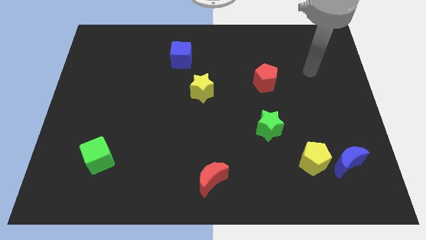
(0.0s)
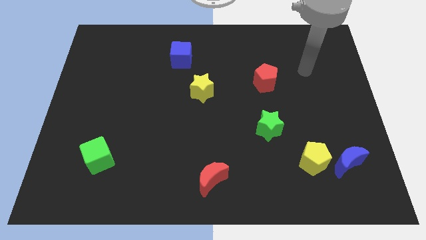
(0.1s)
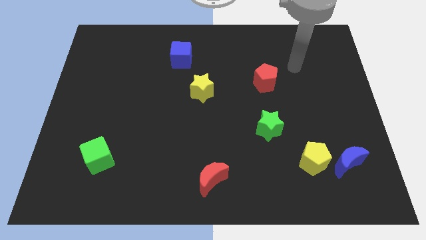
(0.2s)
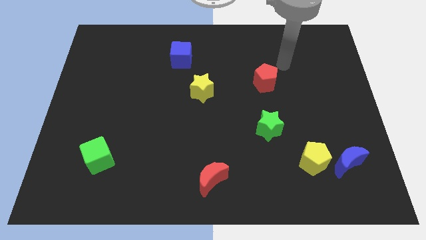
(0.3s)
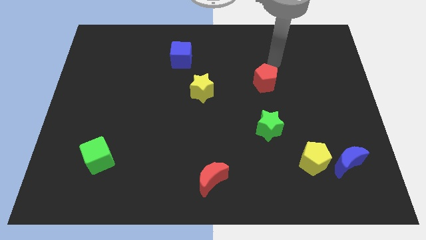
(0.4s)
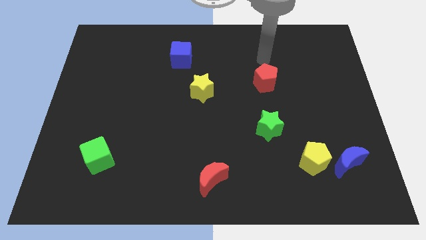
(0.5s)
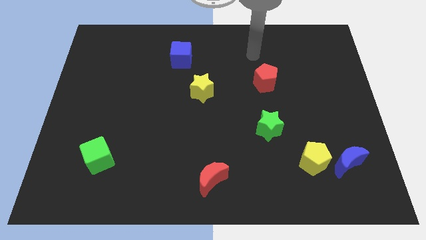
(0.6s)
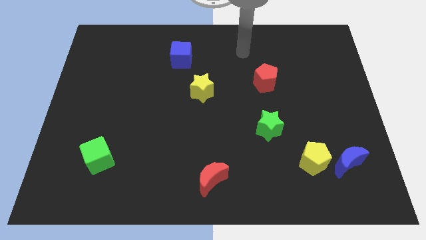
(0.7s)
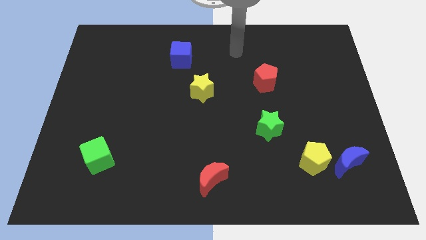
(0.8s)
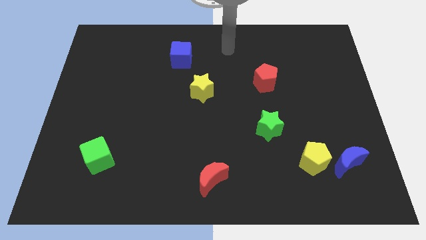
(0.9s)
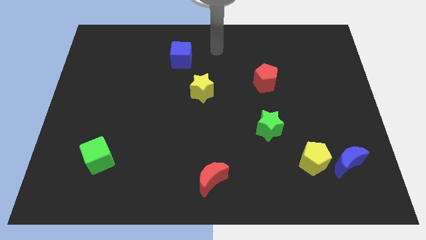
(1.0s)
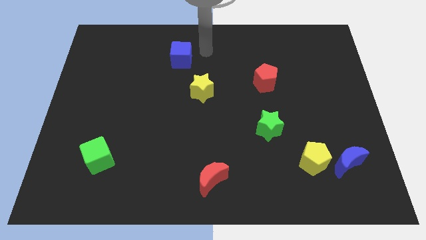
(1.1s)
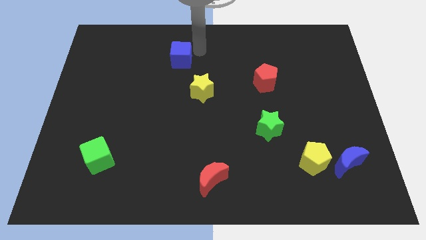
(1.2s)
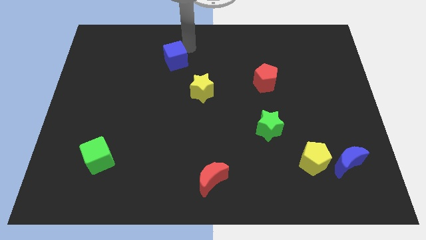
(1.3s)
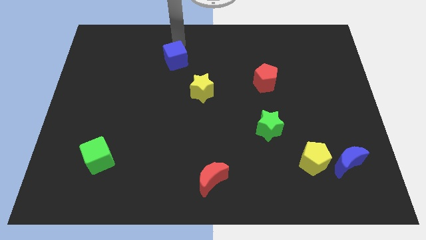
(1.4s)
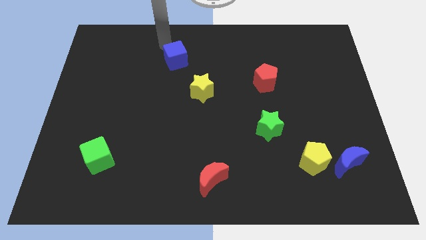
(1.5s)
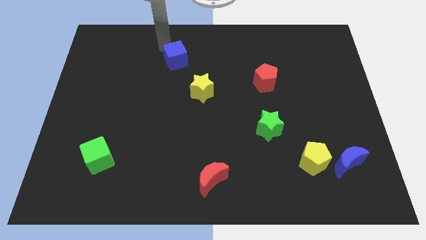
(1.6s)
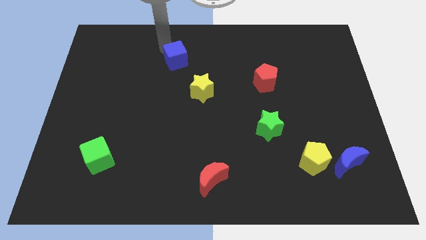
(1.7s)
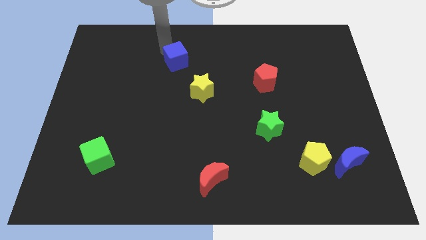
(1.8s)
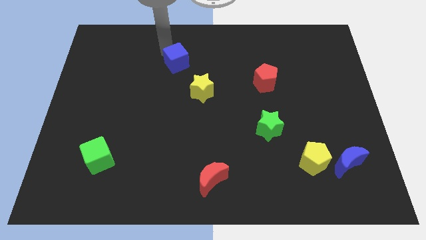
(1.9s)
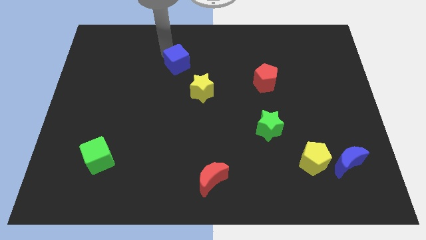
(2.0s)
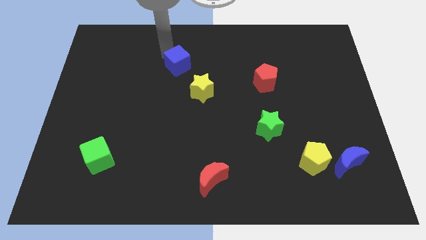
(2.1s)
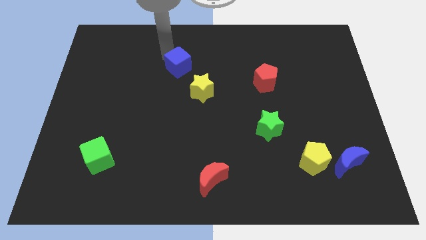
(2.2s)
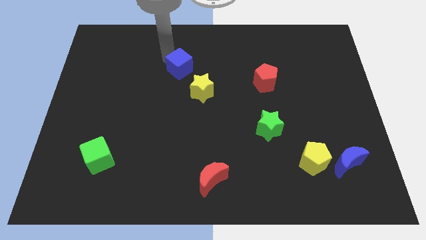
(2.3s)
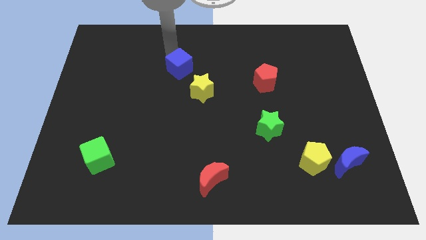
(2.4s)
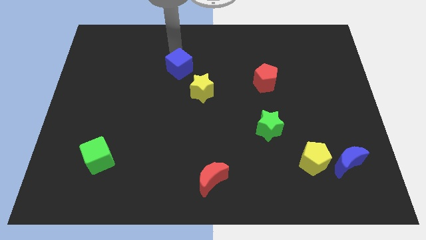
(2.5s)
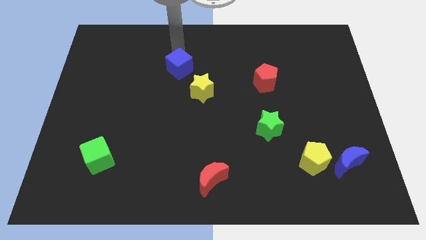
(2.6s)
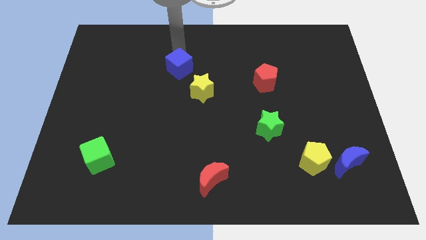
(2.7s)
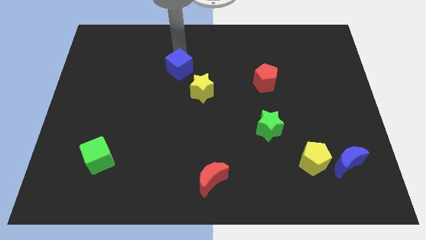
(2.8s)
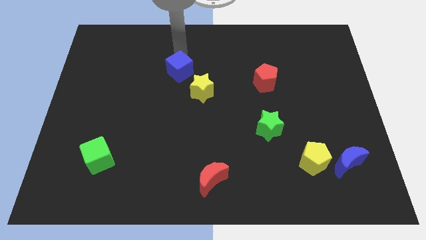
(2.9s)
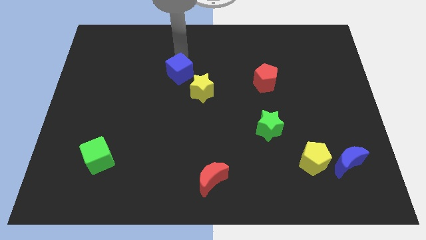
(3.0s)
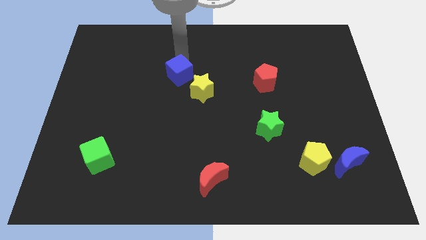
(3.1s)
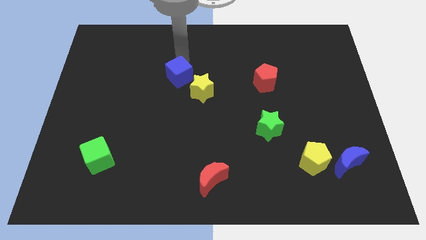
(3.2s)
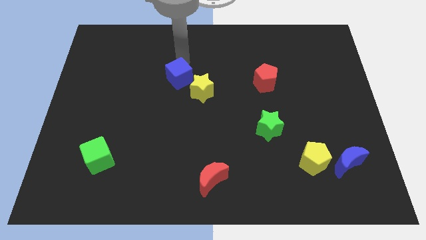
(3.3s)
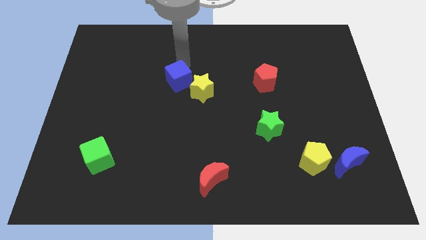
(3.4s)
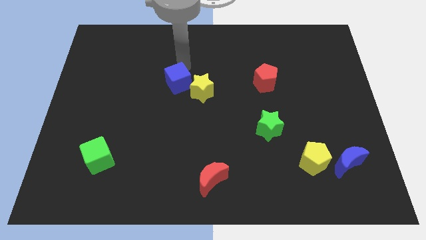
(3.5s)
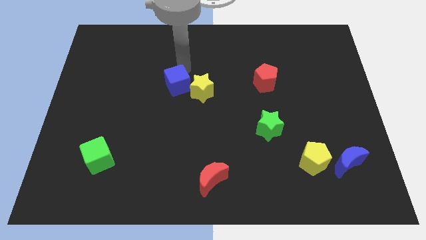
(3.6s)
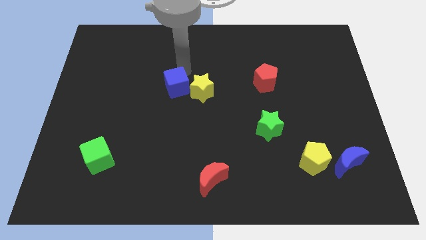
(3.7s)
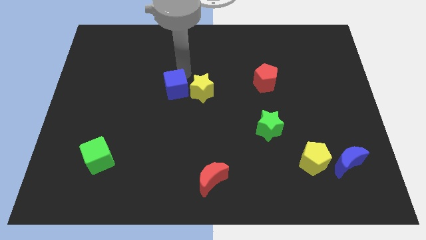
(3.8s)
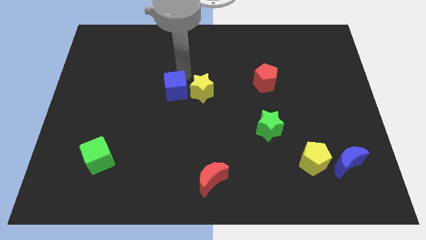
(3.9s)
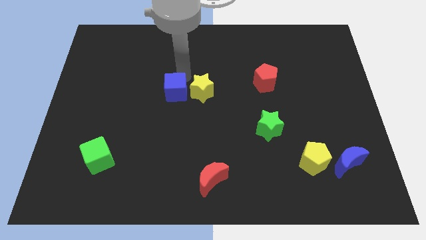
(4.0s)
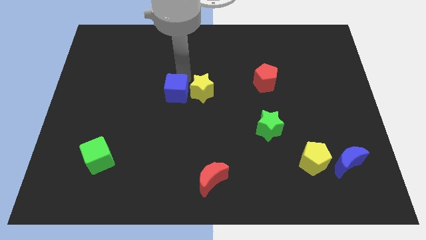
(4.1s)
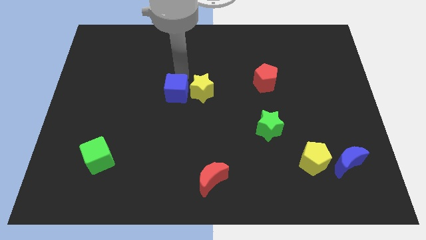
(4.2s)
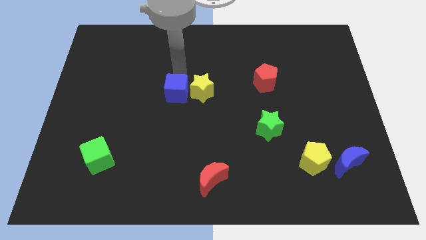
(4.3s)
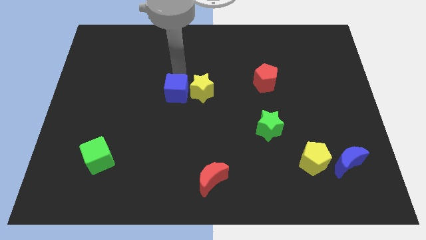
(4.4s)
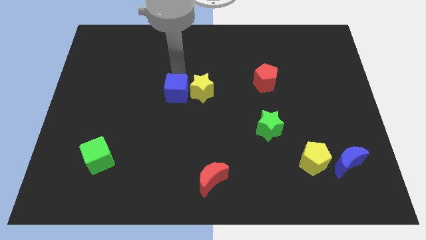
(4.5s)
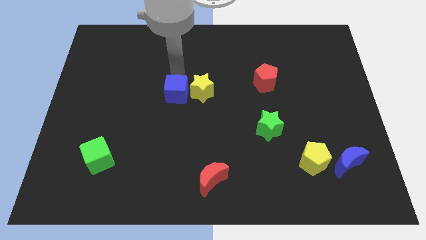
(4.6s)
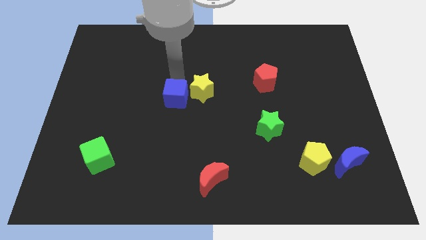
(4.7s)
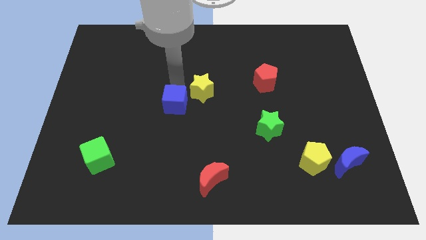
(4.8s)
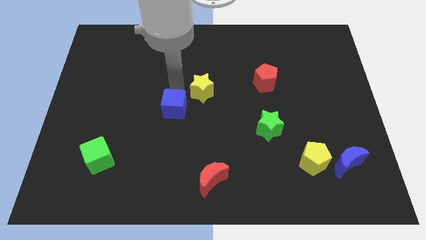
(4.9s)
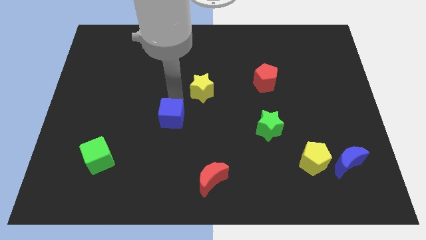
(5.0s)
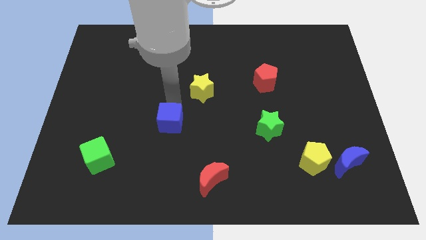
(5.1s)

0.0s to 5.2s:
move the blue cube down

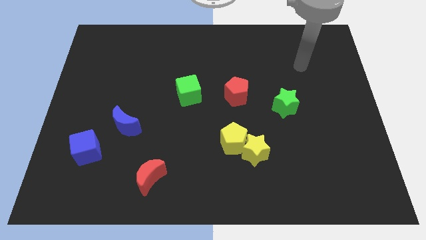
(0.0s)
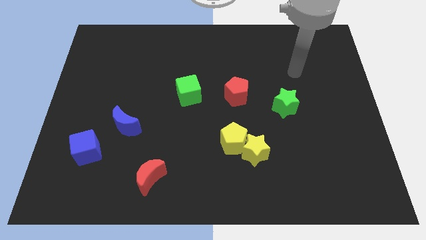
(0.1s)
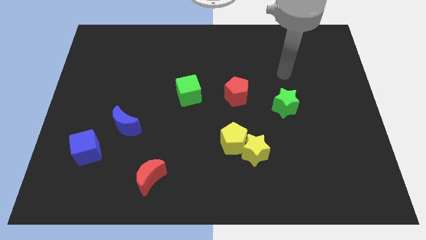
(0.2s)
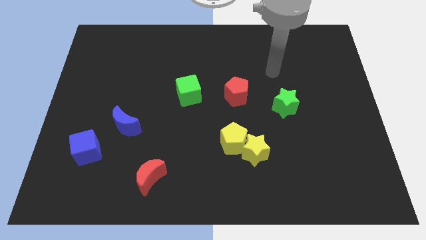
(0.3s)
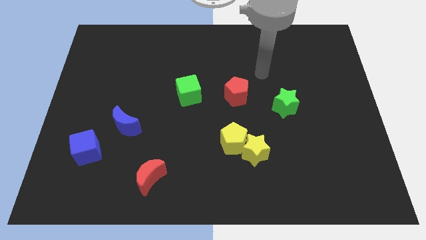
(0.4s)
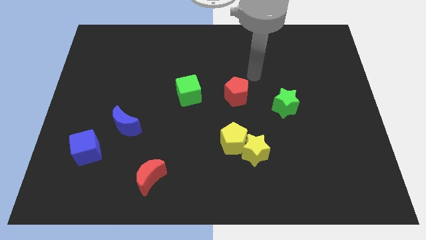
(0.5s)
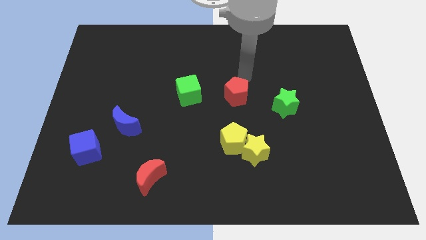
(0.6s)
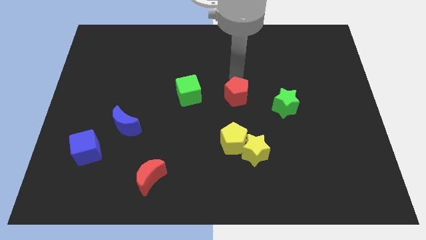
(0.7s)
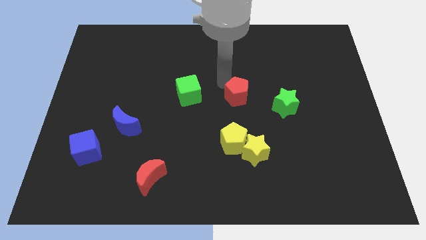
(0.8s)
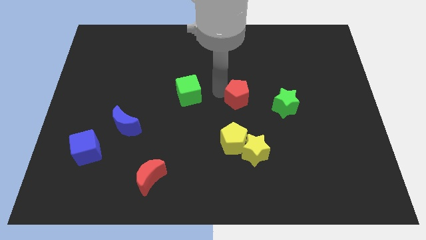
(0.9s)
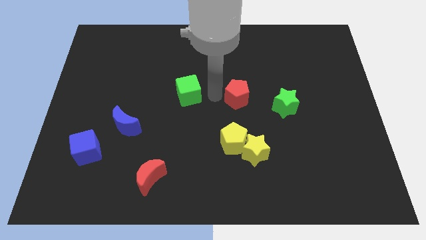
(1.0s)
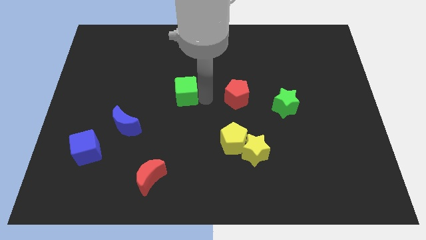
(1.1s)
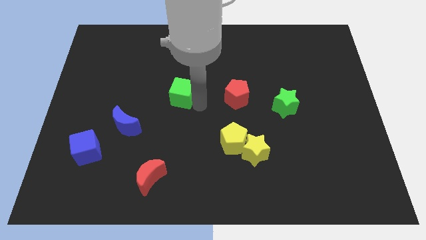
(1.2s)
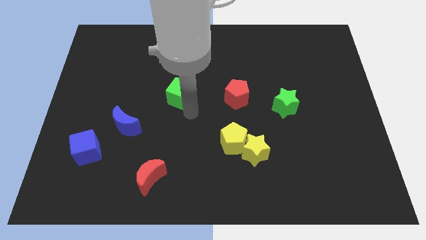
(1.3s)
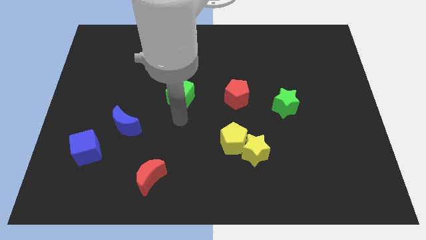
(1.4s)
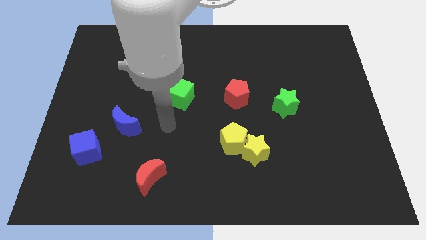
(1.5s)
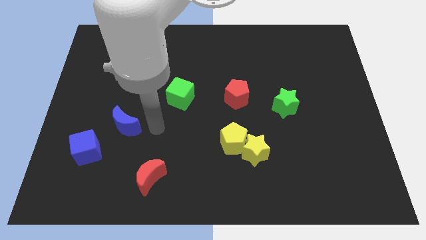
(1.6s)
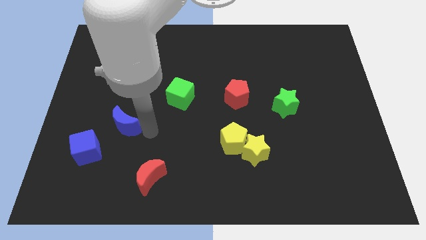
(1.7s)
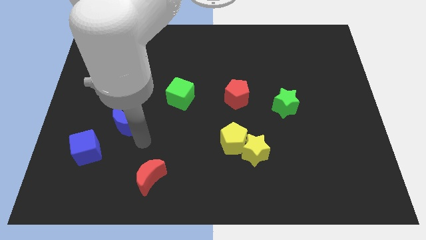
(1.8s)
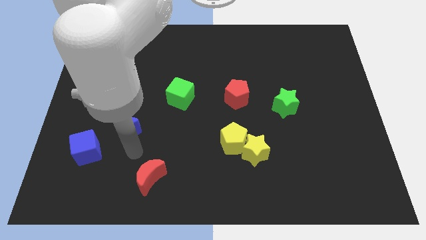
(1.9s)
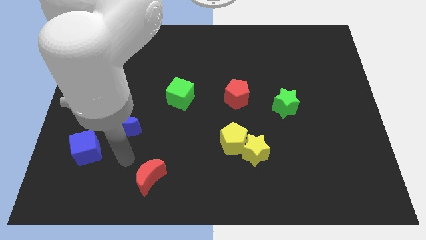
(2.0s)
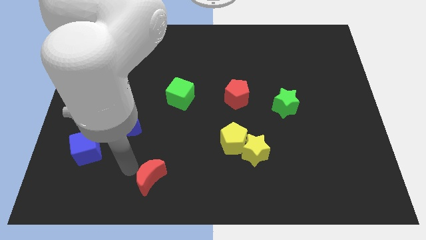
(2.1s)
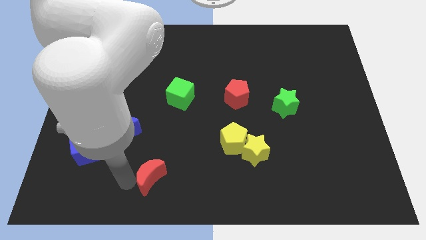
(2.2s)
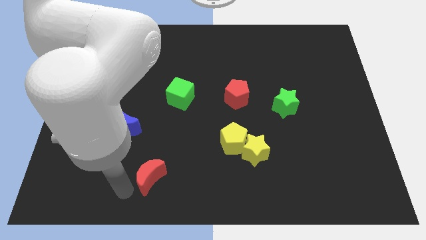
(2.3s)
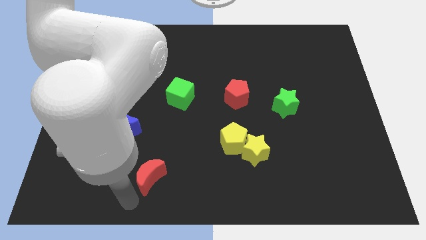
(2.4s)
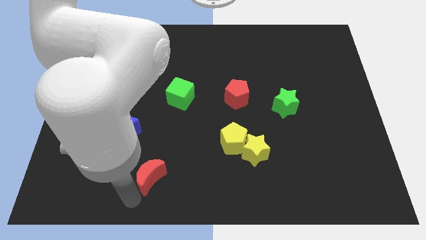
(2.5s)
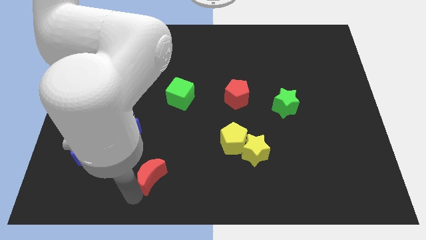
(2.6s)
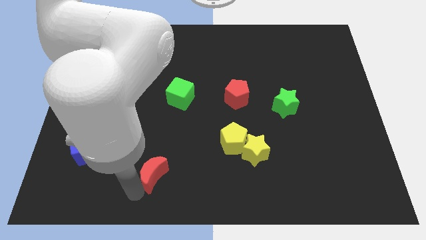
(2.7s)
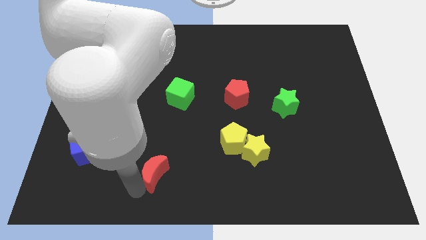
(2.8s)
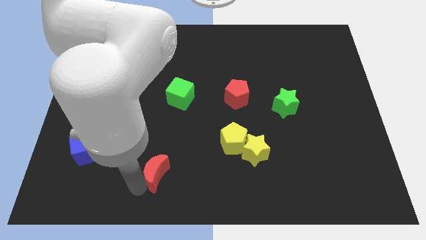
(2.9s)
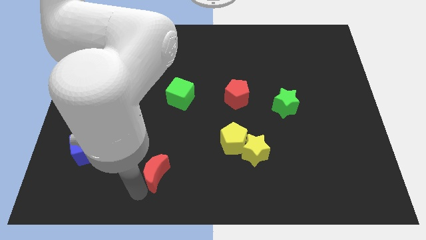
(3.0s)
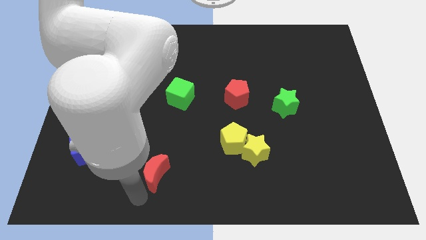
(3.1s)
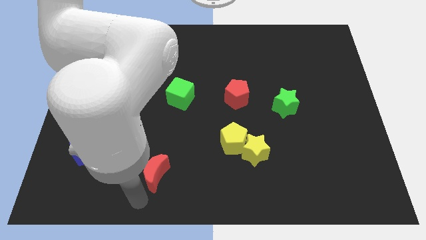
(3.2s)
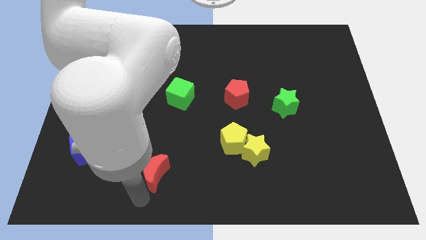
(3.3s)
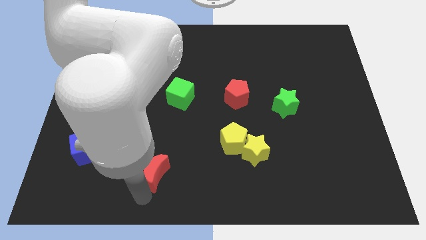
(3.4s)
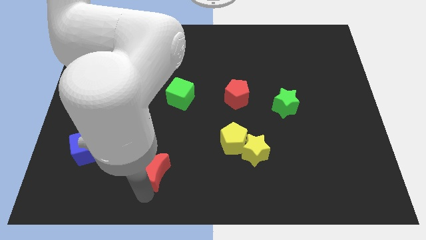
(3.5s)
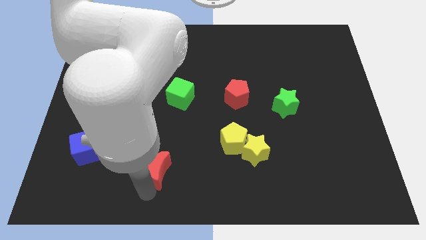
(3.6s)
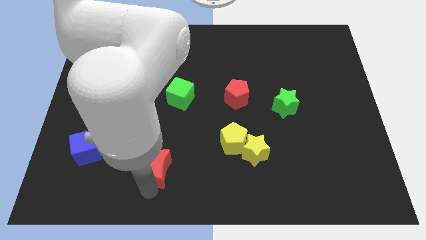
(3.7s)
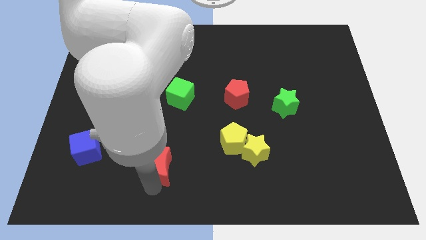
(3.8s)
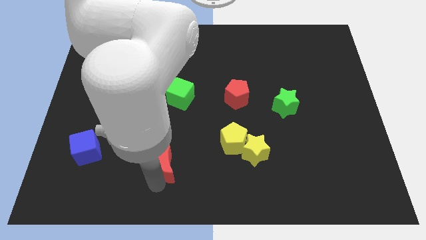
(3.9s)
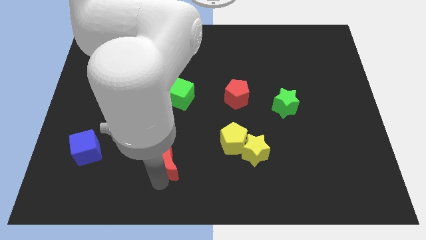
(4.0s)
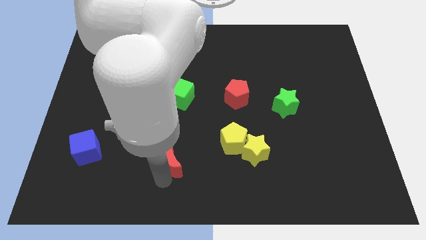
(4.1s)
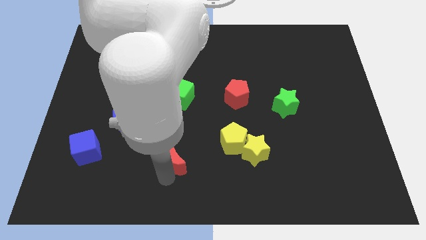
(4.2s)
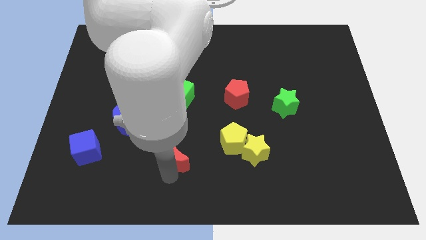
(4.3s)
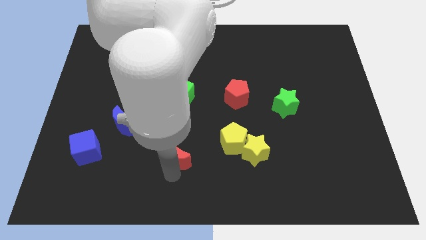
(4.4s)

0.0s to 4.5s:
slide the red moon a bit diagonally upwards and to the right
